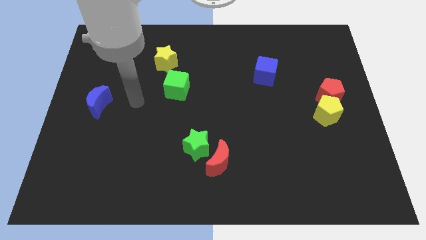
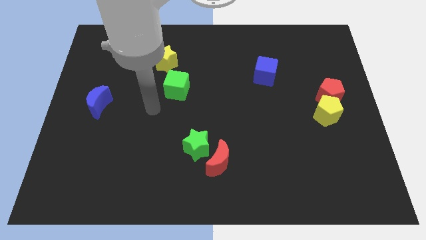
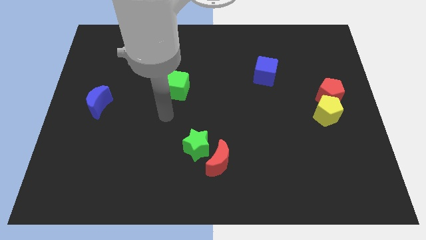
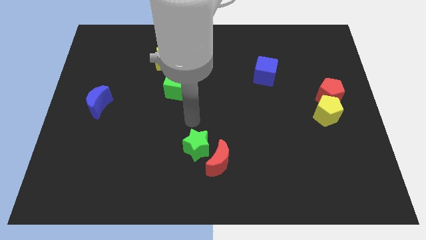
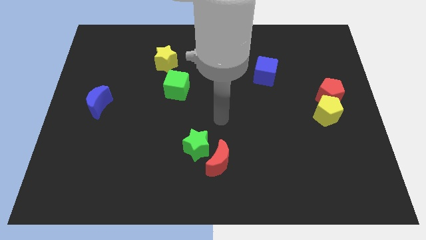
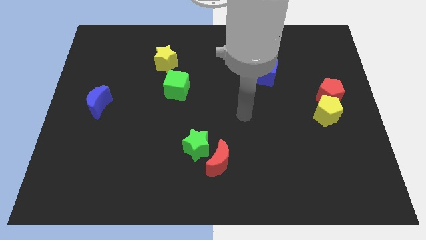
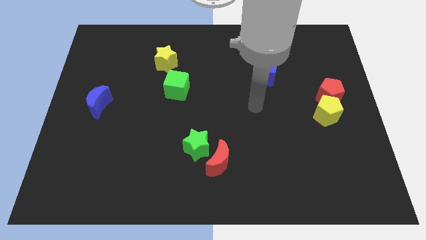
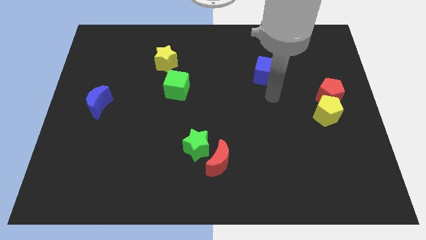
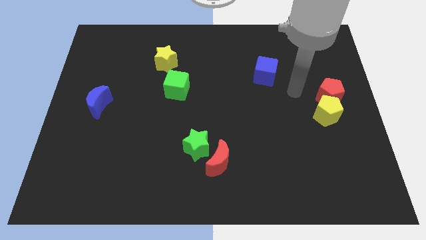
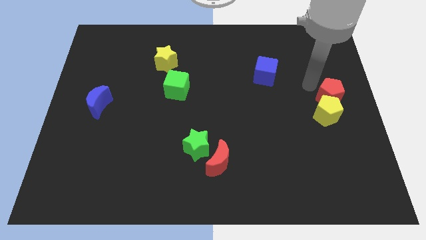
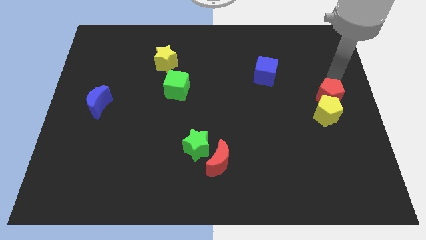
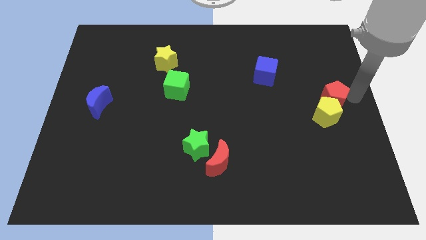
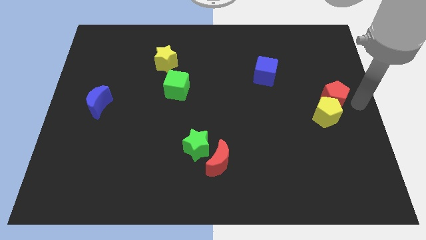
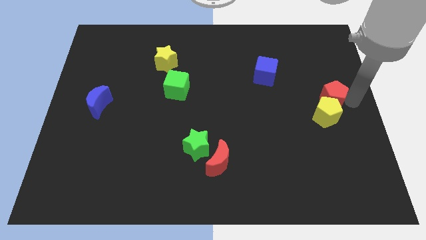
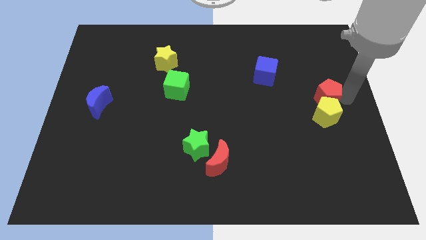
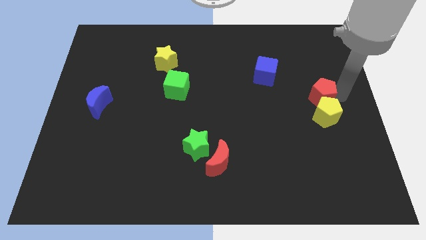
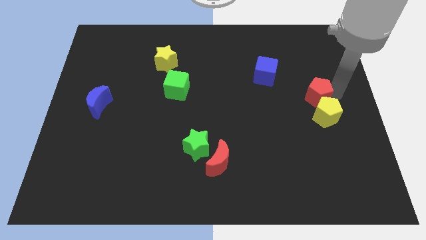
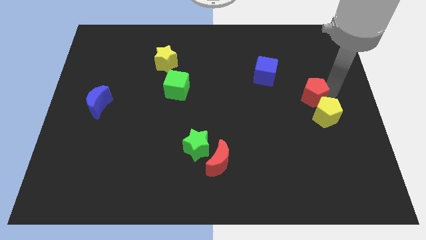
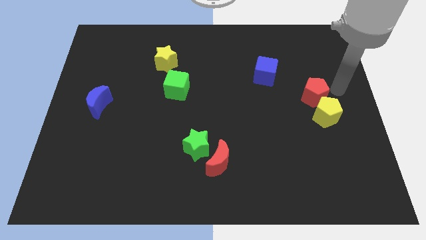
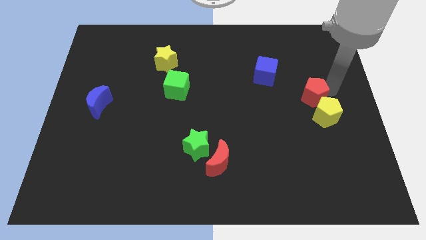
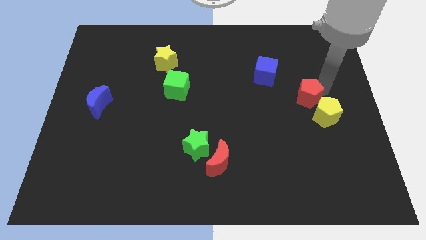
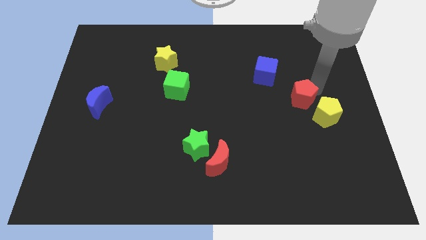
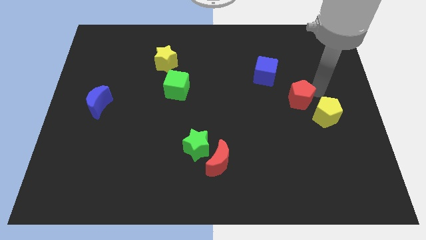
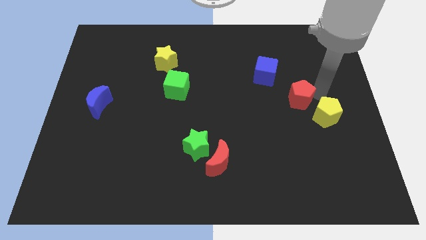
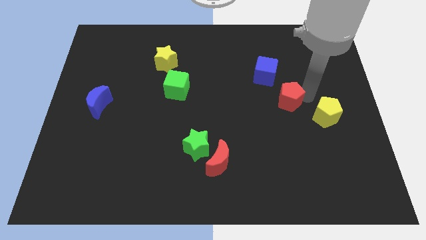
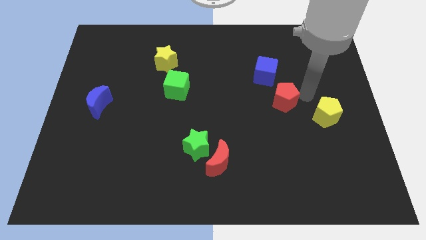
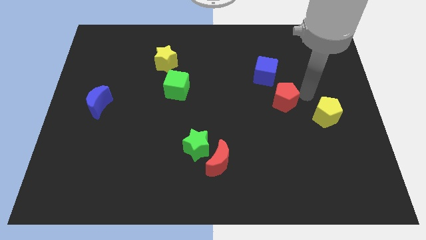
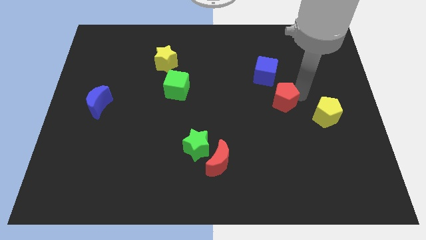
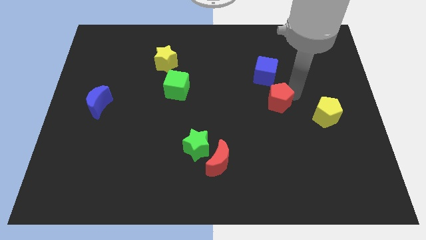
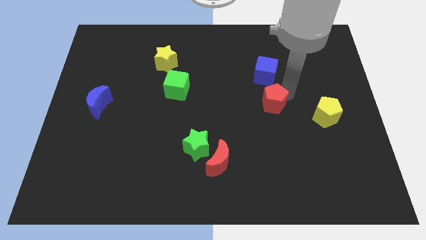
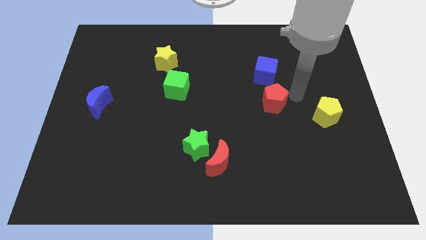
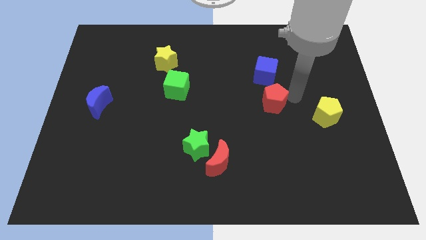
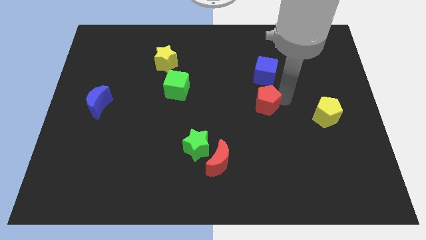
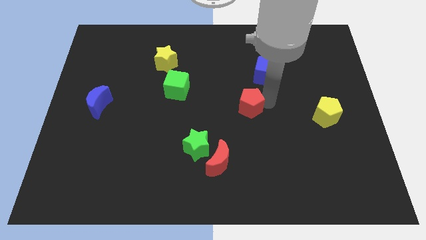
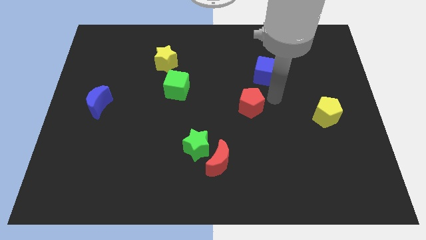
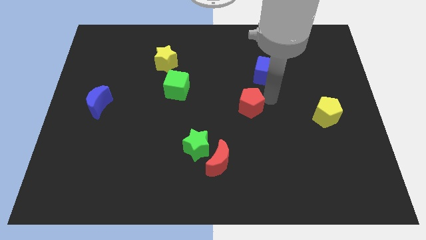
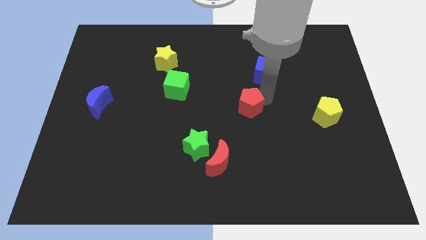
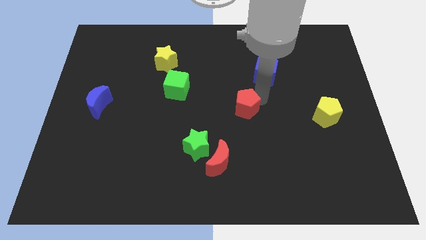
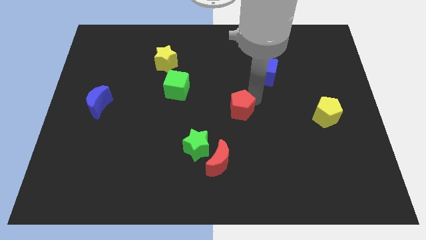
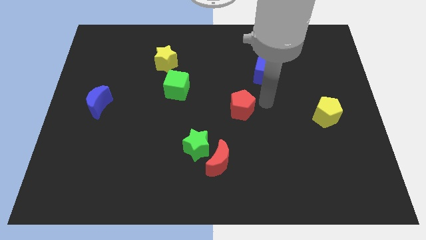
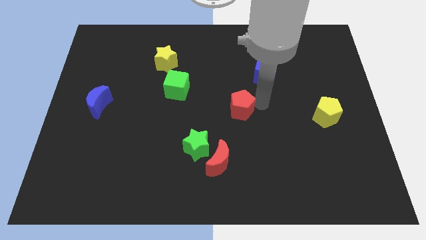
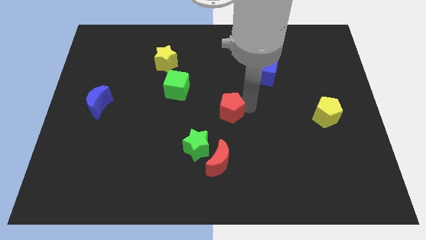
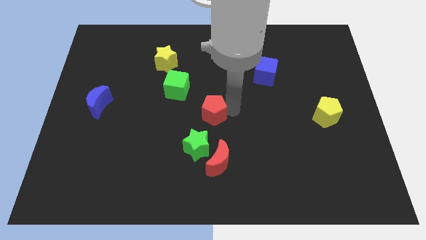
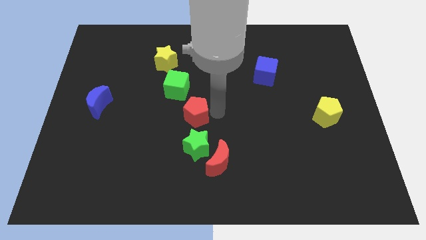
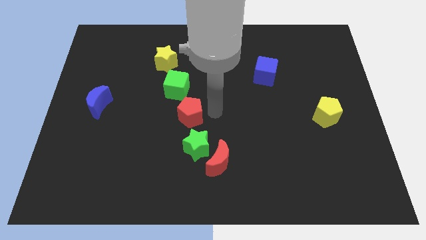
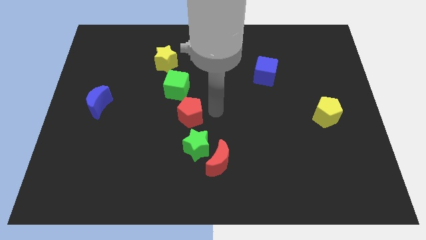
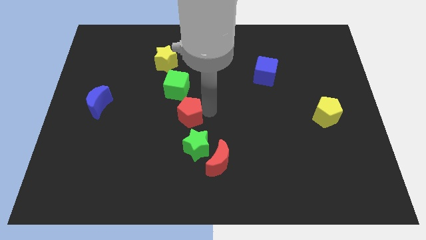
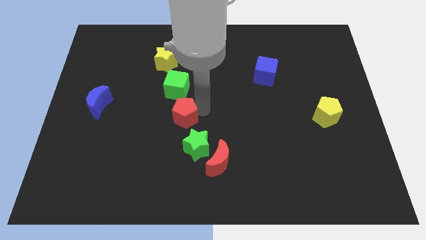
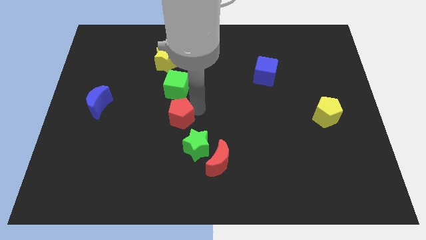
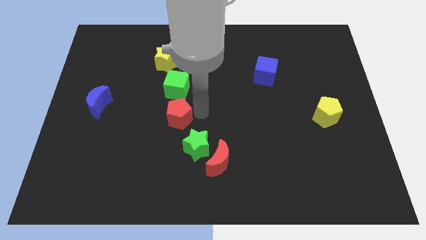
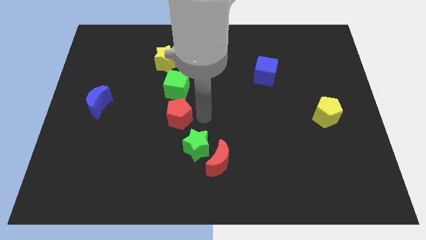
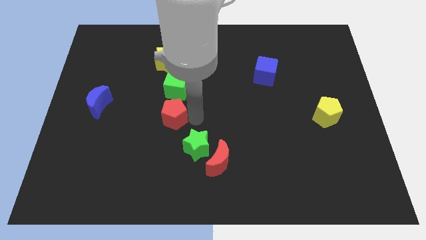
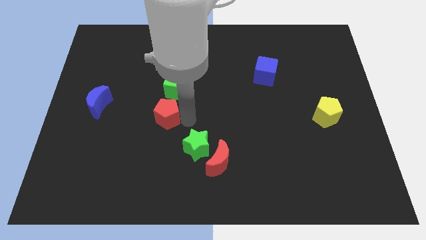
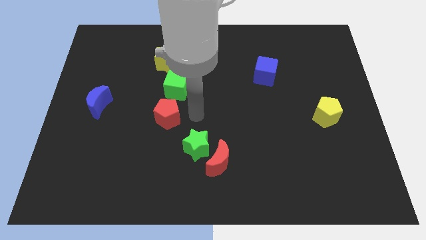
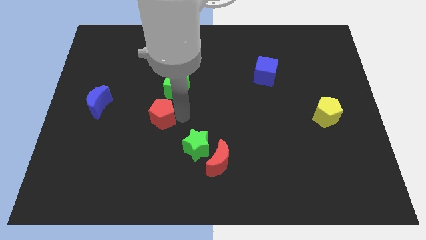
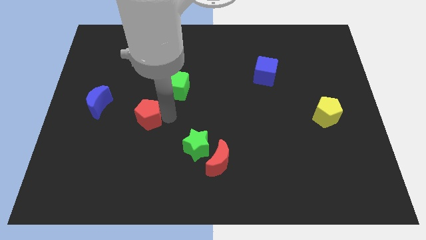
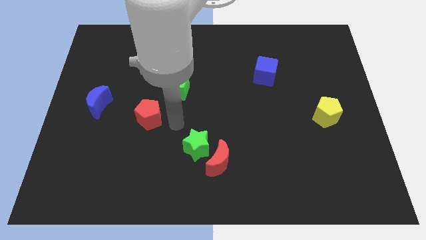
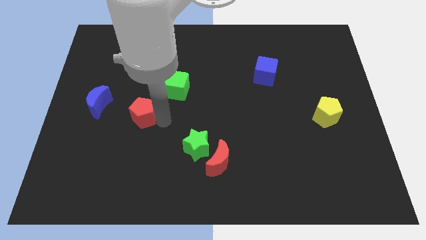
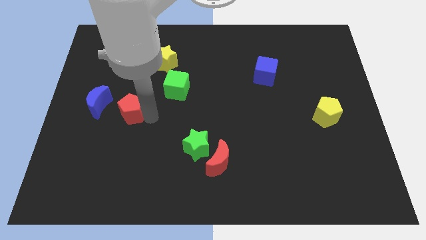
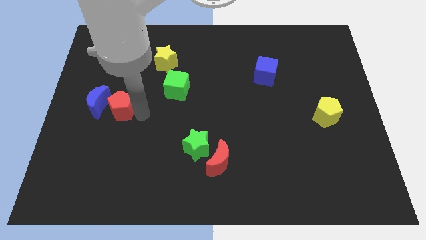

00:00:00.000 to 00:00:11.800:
move the red pentagon towards the blue moon

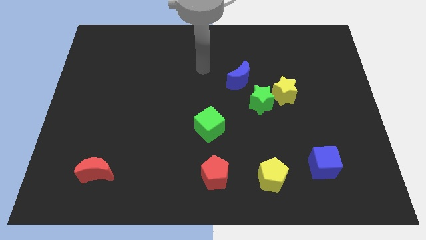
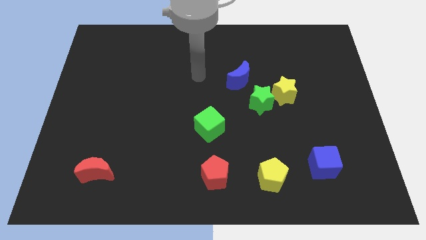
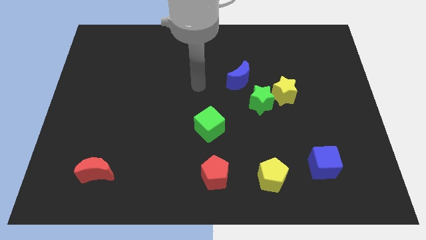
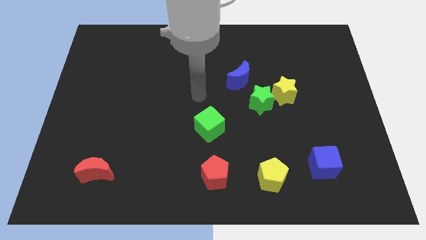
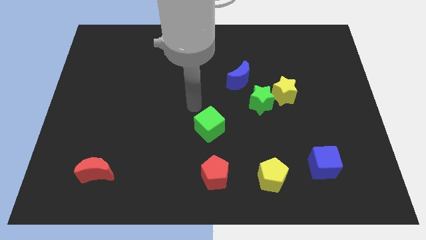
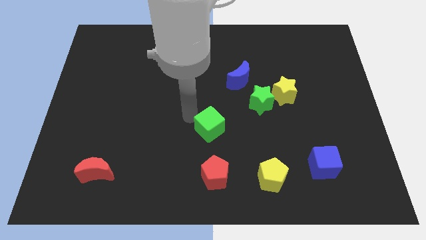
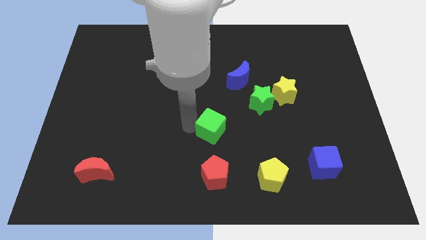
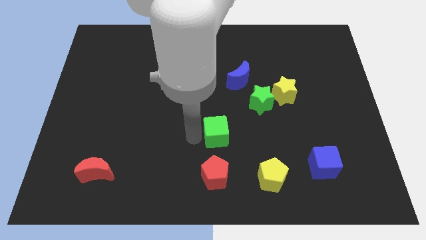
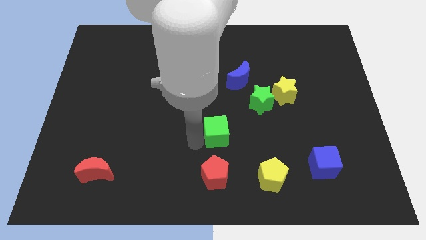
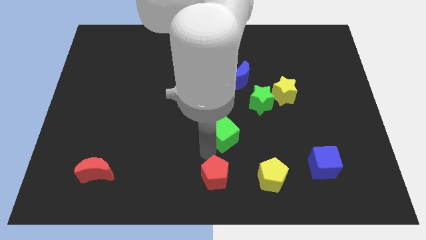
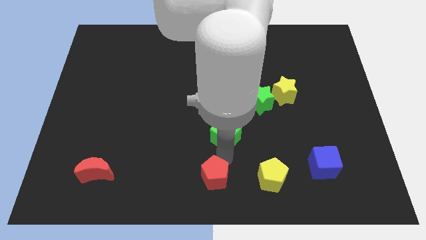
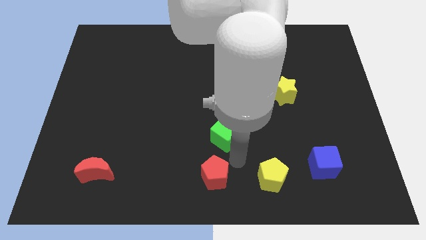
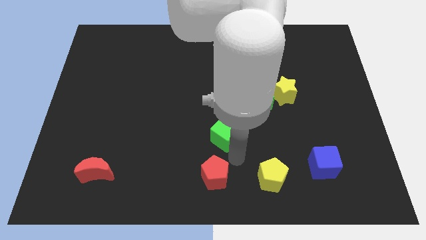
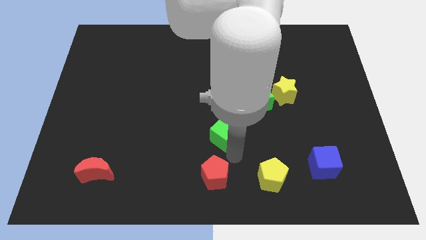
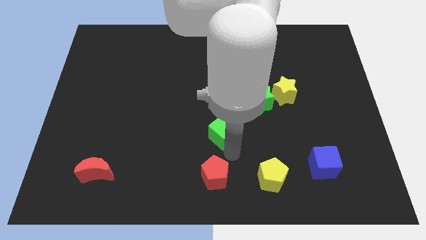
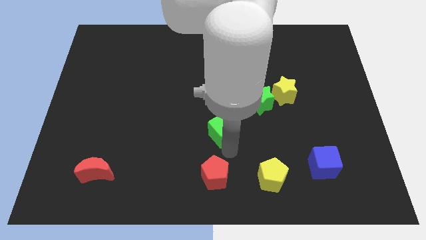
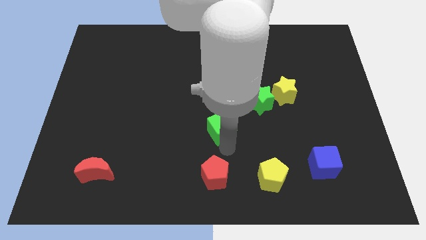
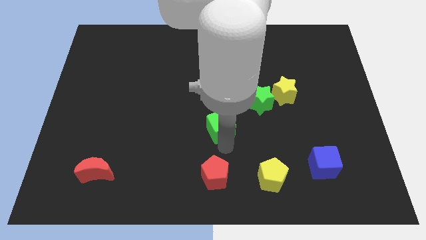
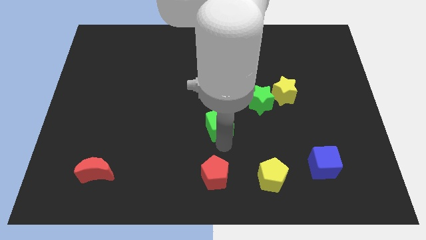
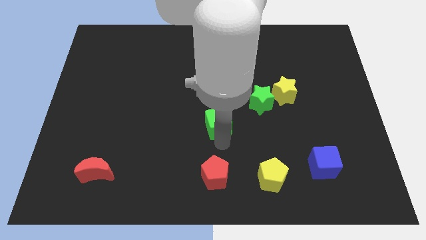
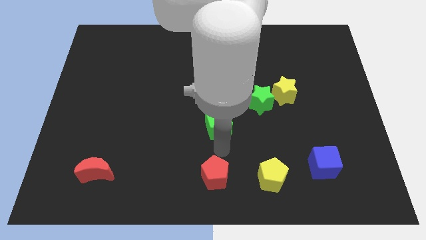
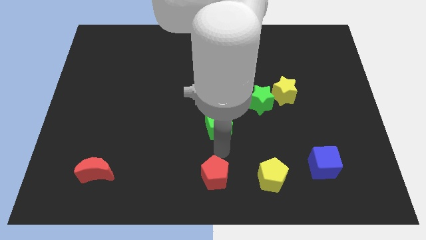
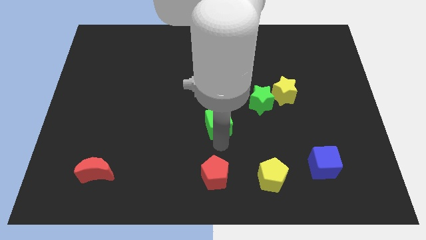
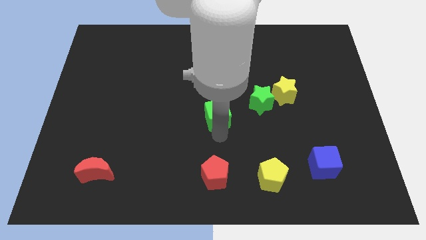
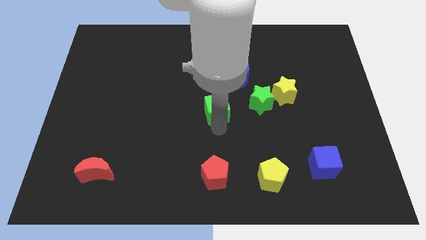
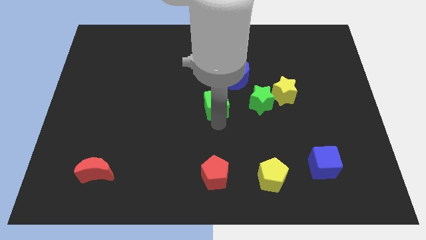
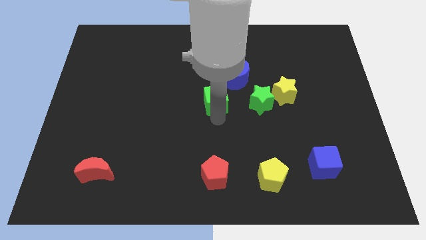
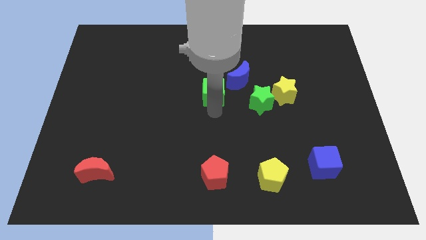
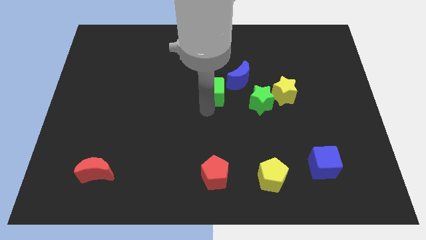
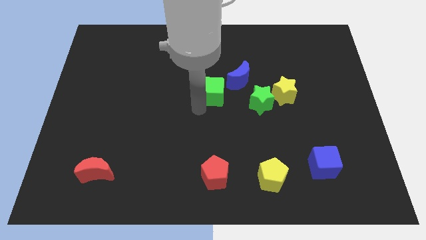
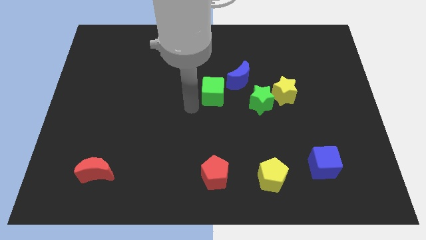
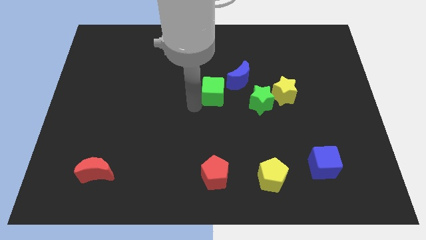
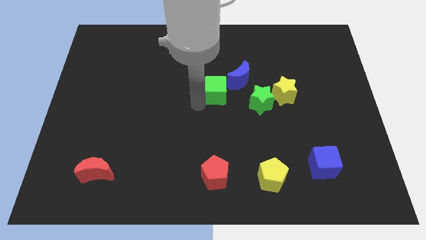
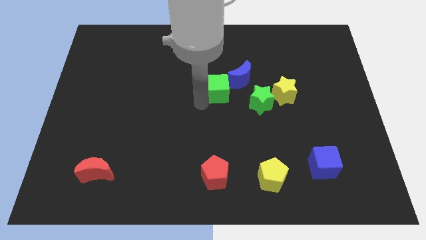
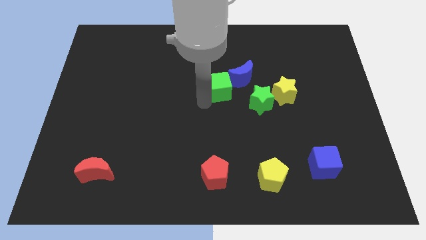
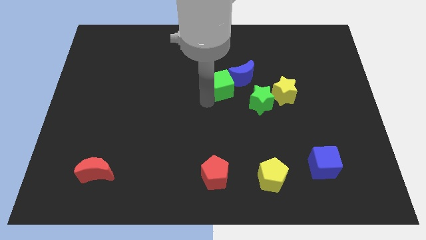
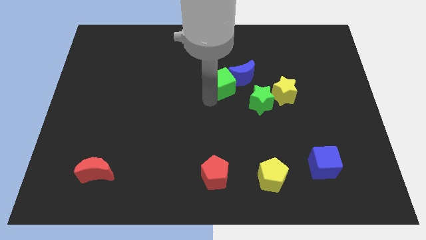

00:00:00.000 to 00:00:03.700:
move the green cube close to the blue moon
